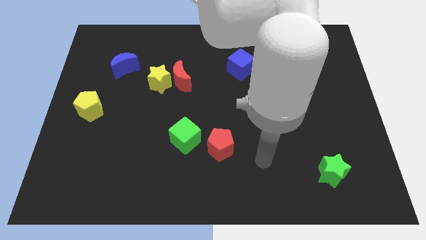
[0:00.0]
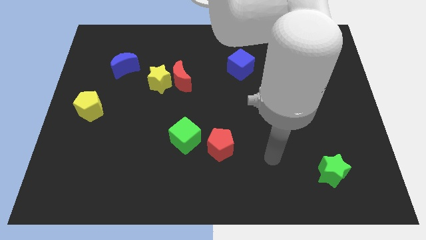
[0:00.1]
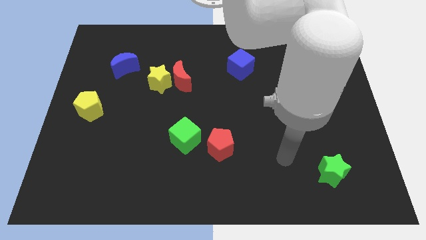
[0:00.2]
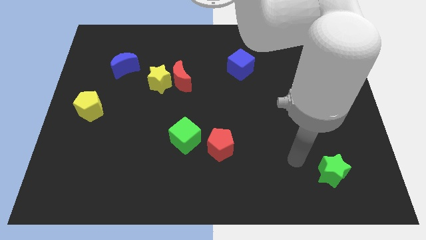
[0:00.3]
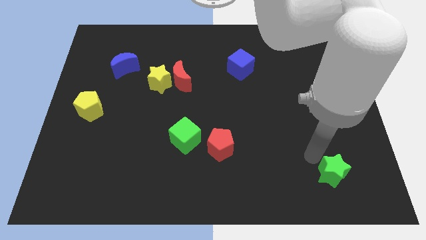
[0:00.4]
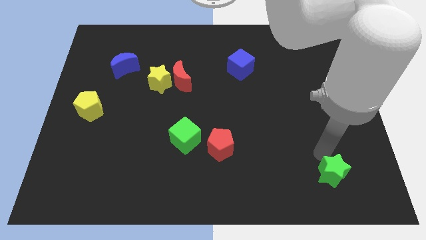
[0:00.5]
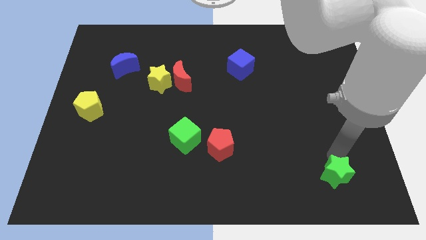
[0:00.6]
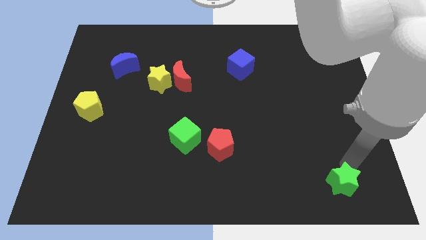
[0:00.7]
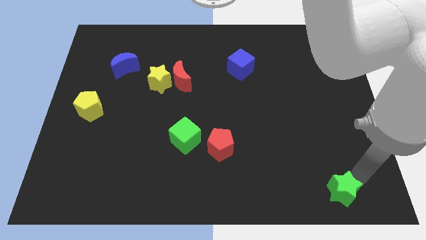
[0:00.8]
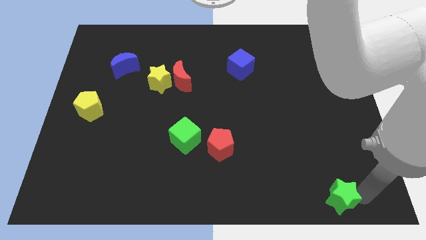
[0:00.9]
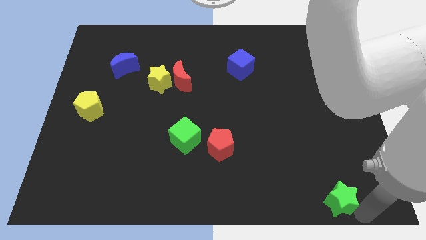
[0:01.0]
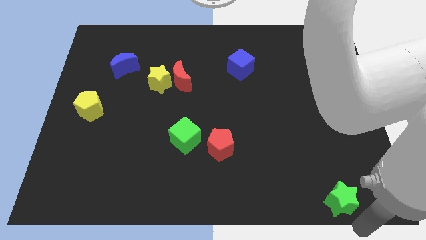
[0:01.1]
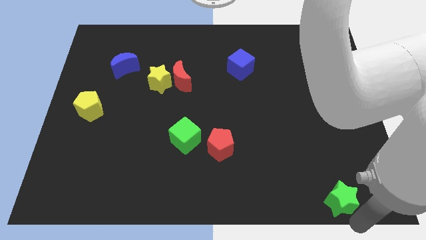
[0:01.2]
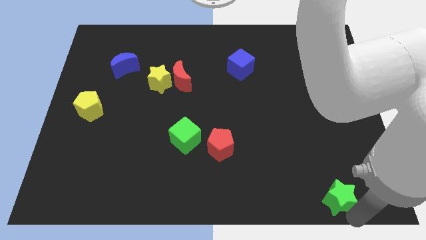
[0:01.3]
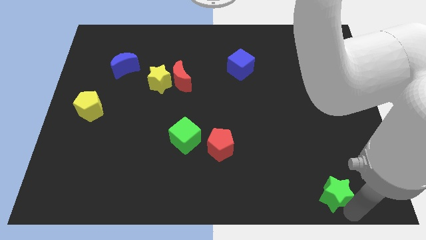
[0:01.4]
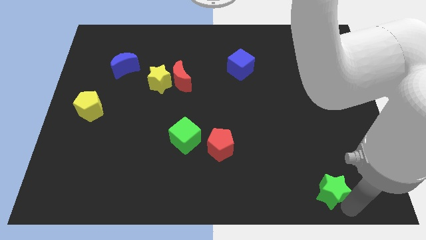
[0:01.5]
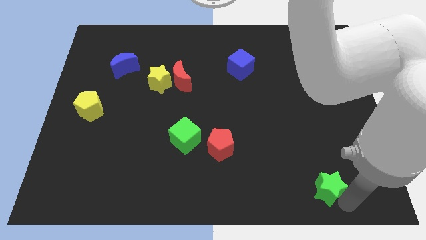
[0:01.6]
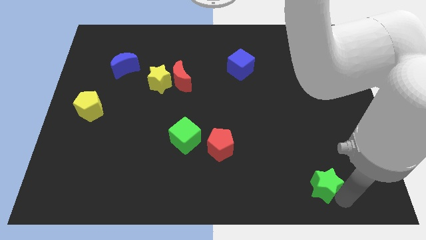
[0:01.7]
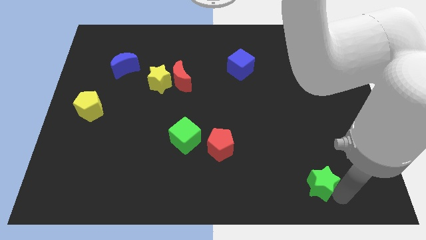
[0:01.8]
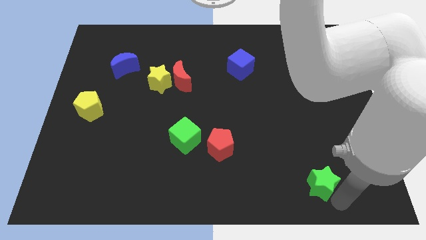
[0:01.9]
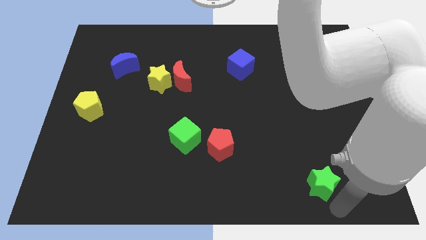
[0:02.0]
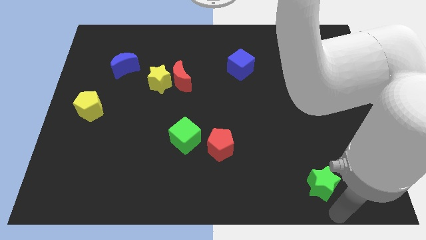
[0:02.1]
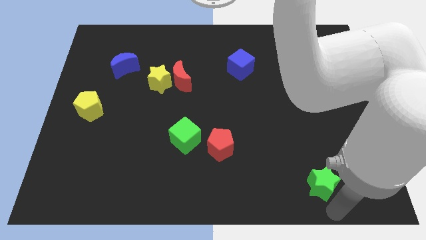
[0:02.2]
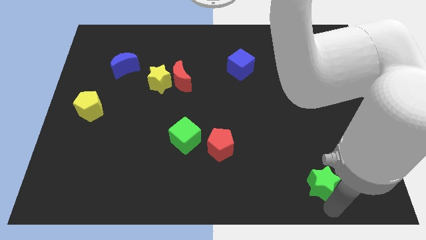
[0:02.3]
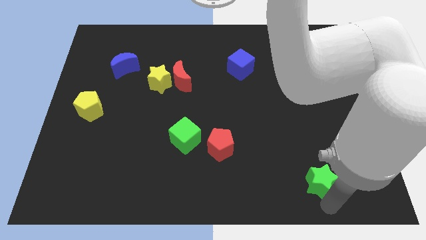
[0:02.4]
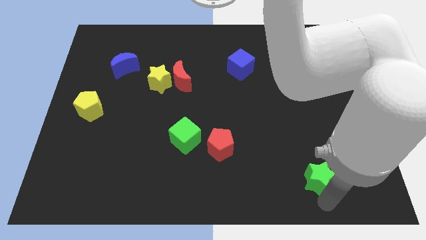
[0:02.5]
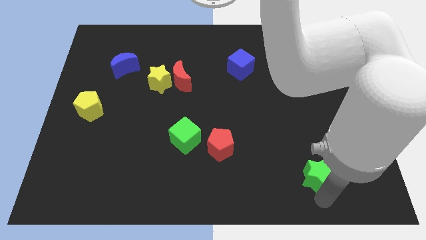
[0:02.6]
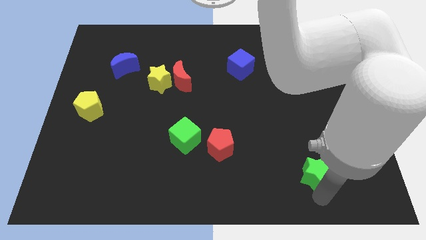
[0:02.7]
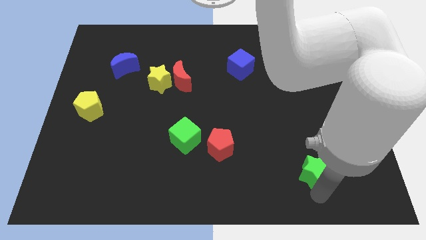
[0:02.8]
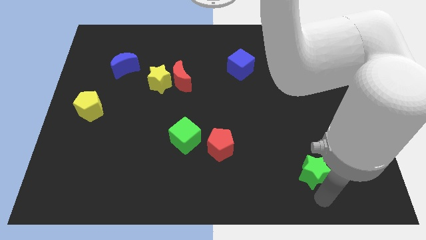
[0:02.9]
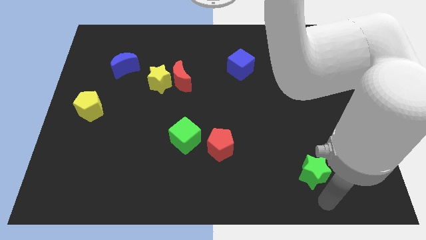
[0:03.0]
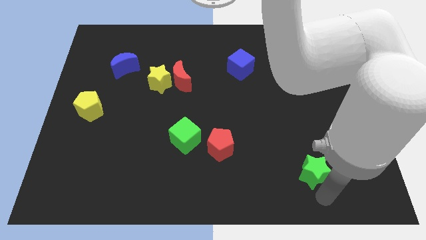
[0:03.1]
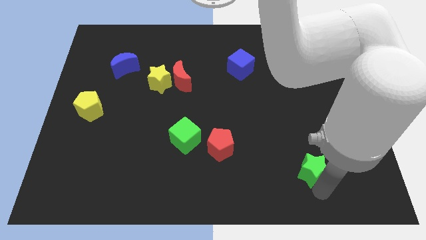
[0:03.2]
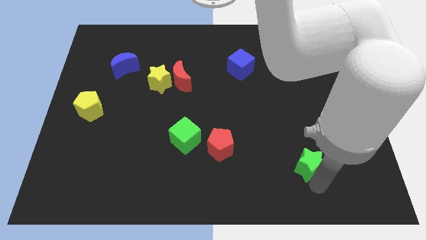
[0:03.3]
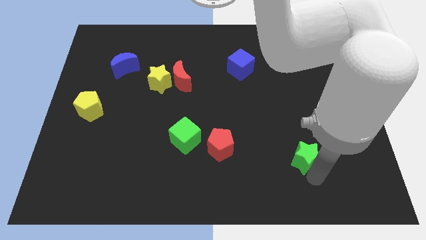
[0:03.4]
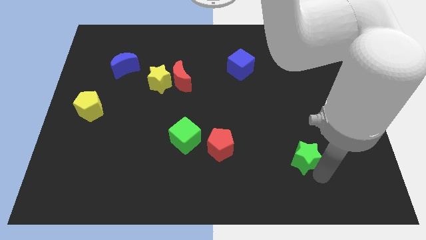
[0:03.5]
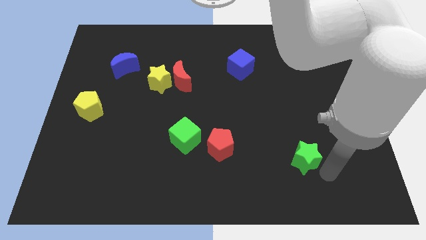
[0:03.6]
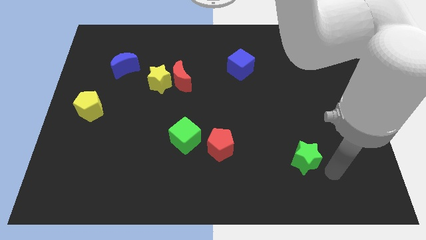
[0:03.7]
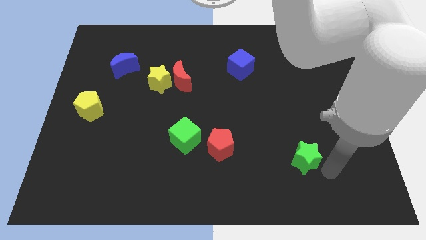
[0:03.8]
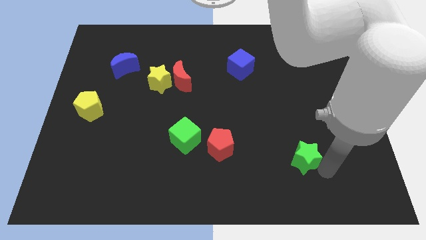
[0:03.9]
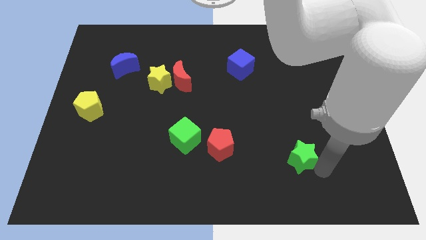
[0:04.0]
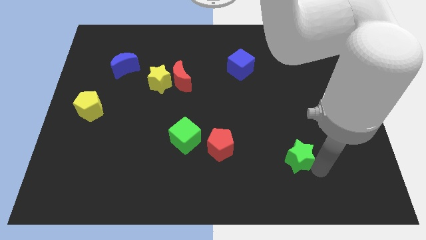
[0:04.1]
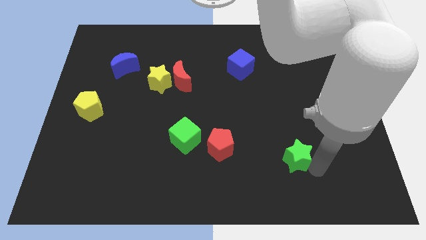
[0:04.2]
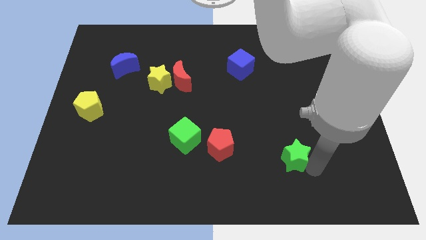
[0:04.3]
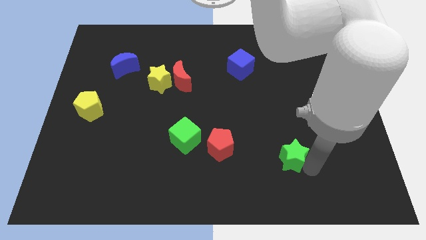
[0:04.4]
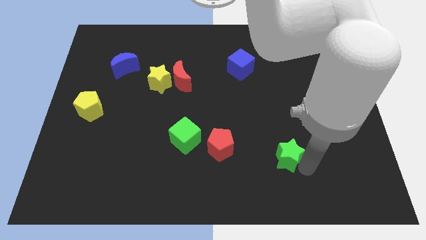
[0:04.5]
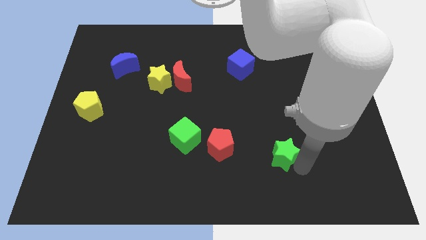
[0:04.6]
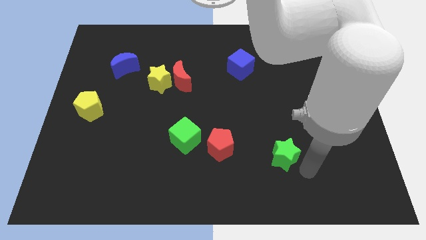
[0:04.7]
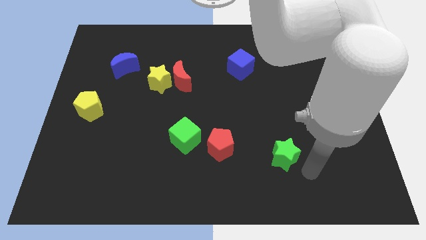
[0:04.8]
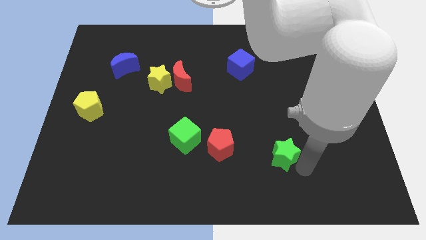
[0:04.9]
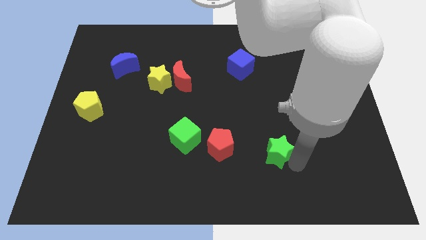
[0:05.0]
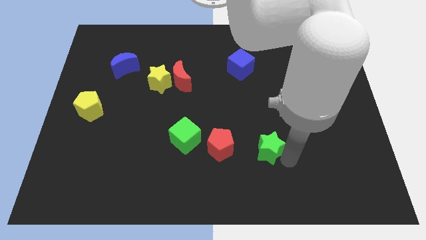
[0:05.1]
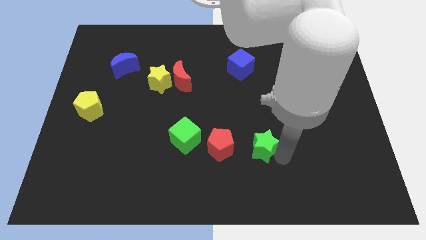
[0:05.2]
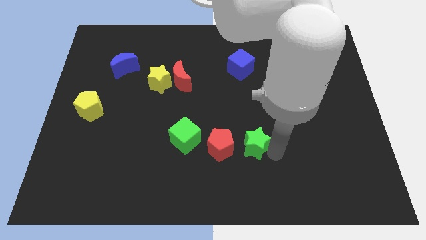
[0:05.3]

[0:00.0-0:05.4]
slide the green star to the right of the green cube

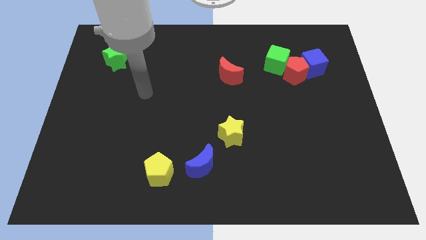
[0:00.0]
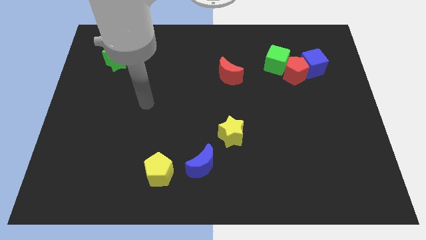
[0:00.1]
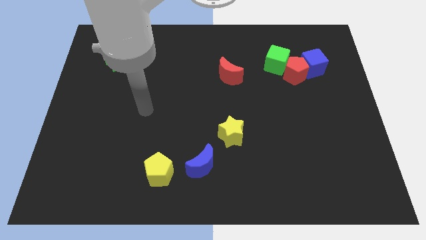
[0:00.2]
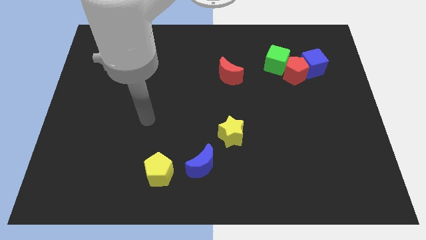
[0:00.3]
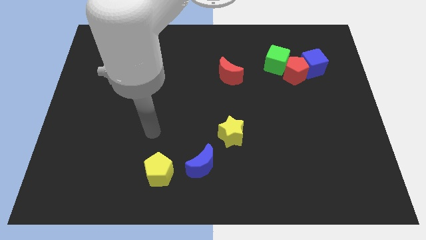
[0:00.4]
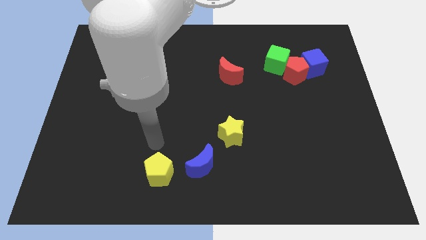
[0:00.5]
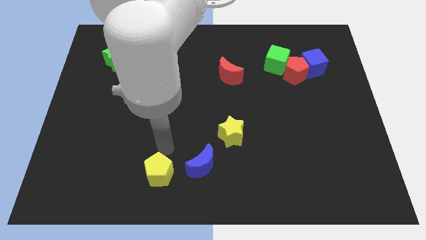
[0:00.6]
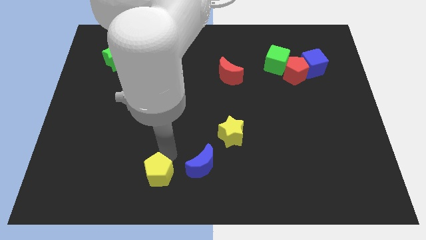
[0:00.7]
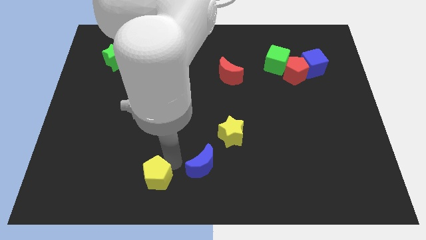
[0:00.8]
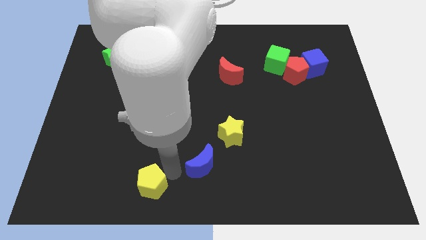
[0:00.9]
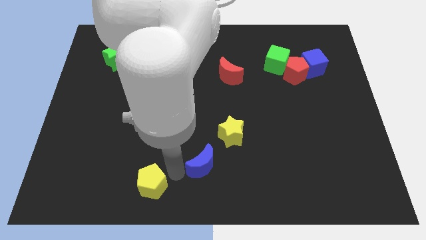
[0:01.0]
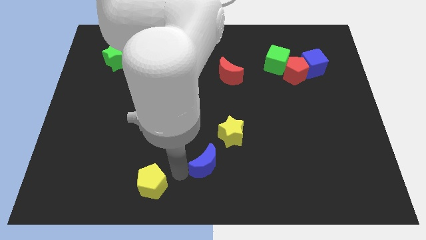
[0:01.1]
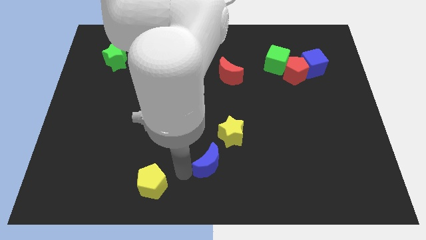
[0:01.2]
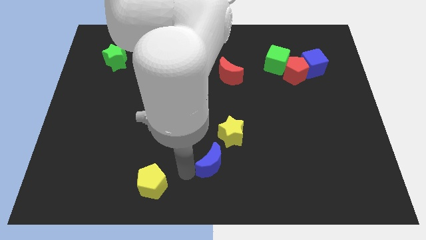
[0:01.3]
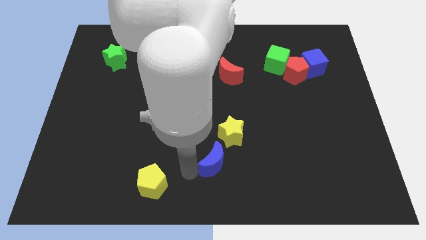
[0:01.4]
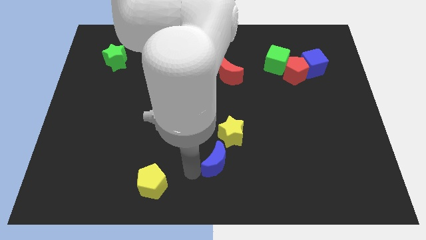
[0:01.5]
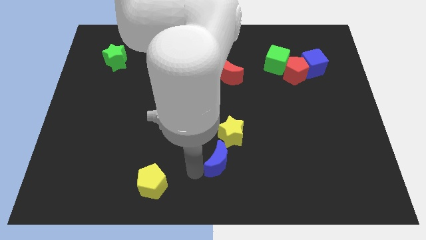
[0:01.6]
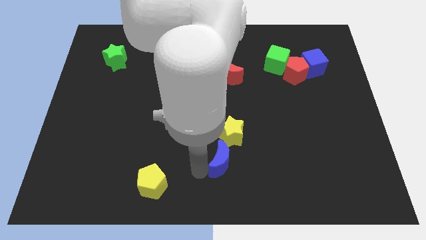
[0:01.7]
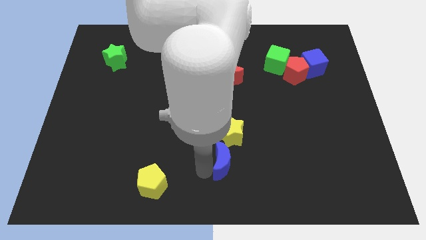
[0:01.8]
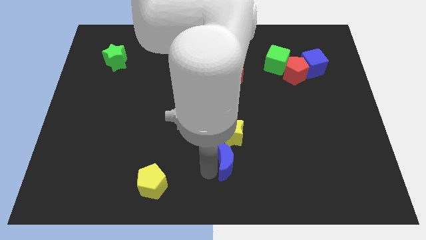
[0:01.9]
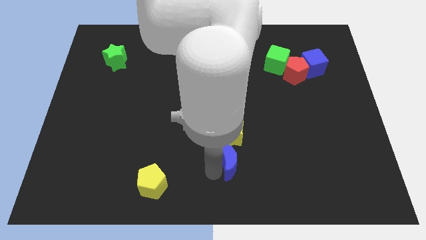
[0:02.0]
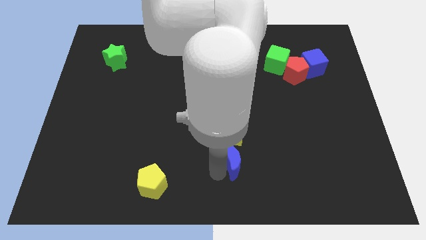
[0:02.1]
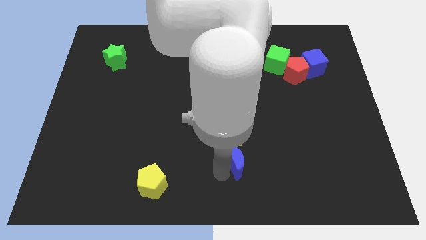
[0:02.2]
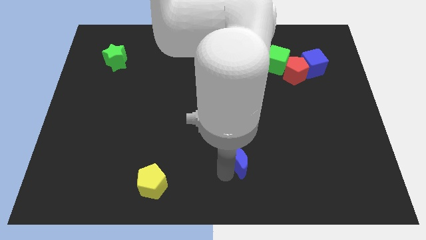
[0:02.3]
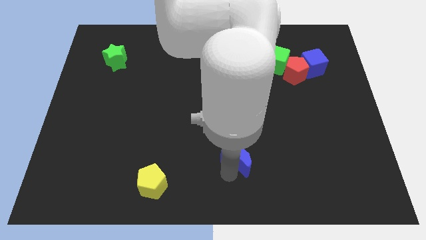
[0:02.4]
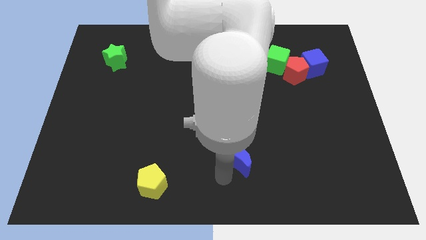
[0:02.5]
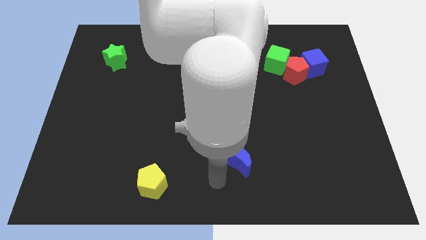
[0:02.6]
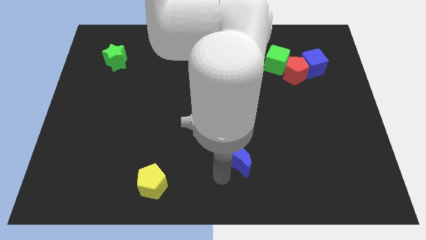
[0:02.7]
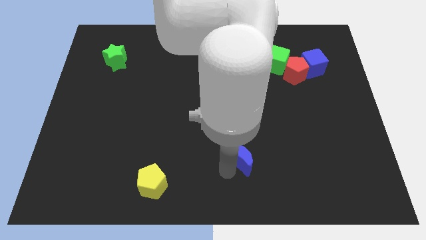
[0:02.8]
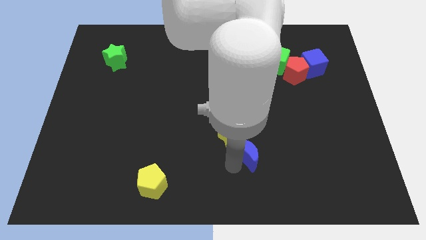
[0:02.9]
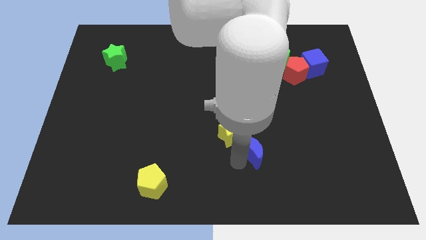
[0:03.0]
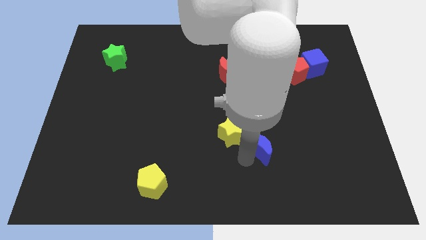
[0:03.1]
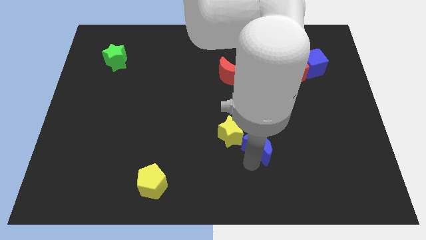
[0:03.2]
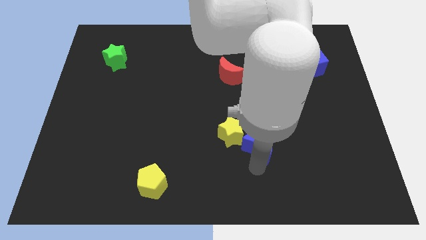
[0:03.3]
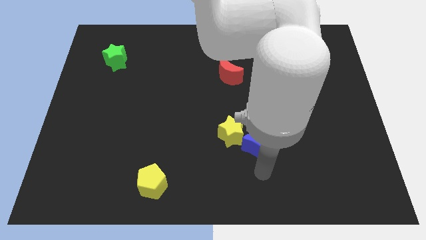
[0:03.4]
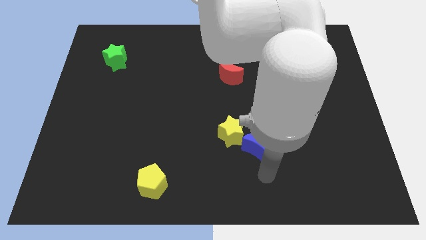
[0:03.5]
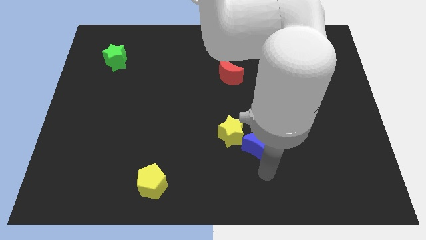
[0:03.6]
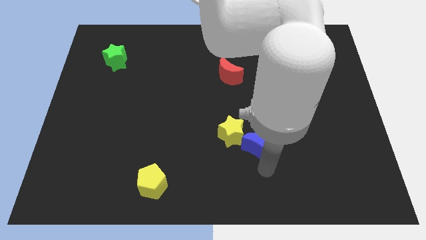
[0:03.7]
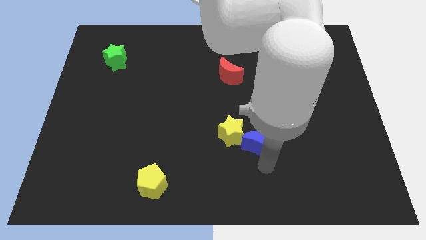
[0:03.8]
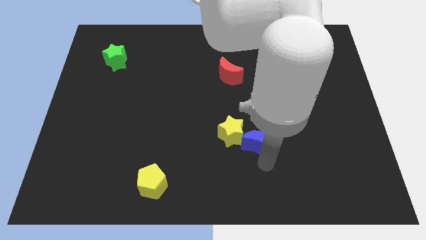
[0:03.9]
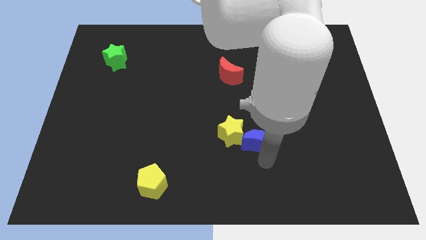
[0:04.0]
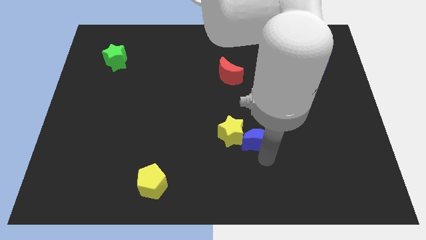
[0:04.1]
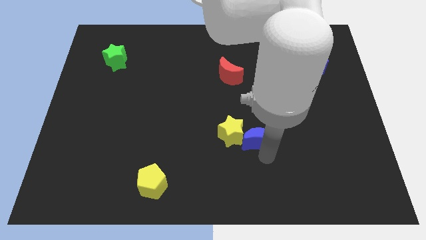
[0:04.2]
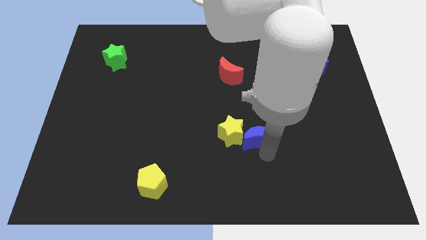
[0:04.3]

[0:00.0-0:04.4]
move the blue moon diagonally up and to the right of the yellow star
